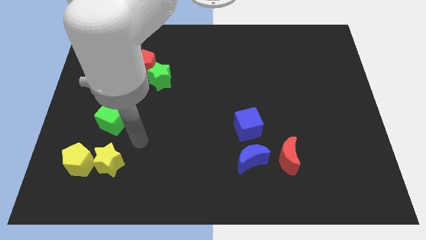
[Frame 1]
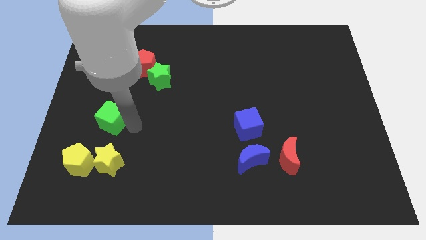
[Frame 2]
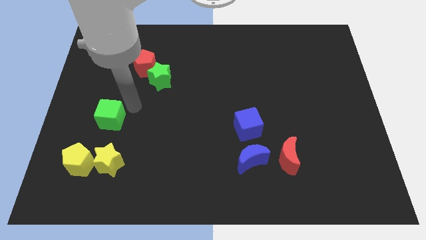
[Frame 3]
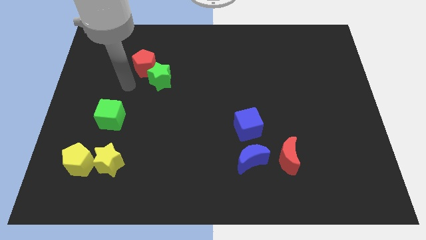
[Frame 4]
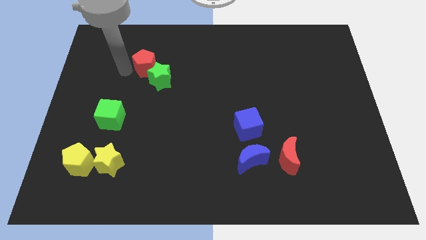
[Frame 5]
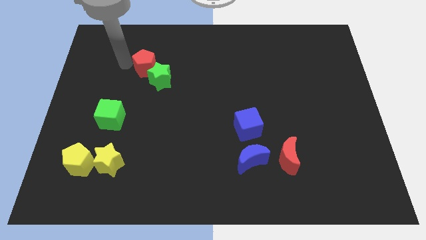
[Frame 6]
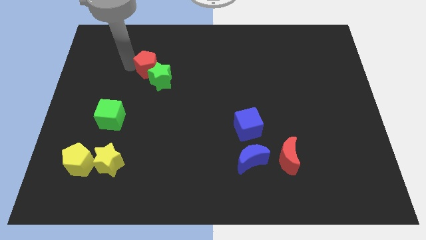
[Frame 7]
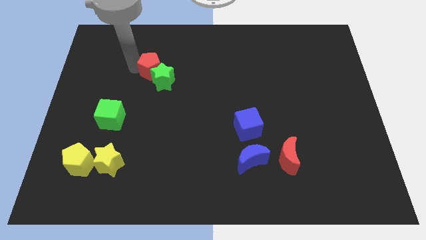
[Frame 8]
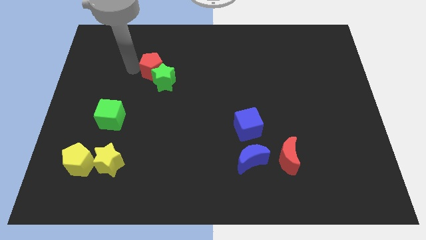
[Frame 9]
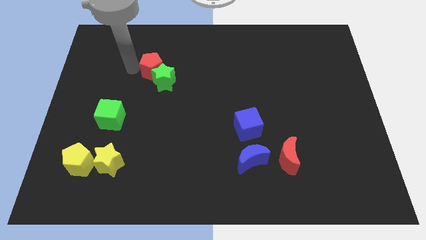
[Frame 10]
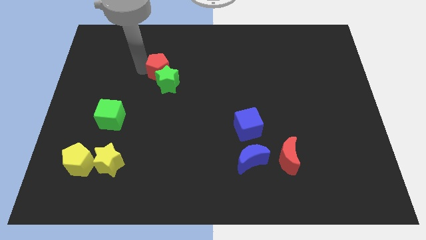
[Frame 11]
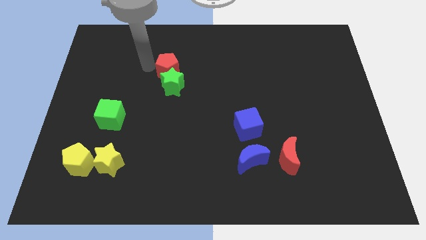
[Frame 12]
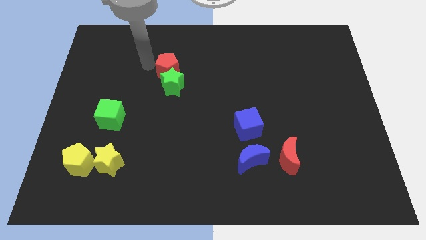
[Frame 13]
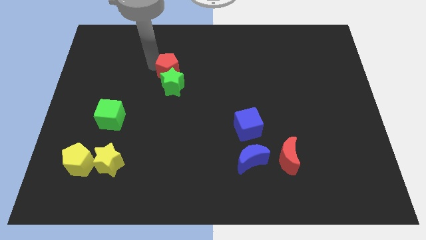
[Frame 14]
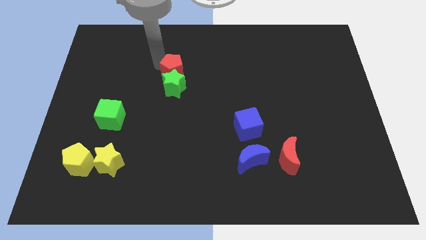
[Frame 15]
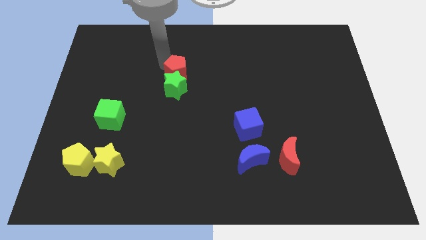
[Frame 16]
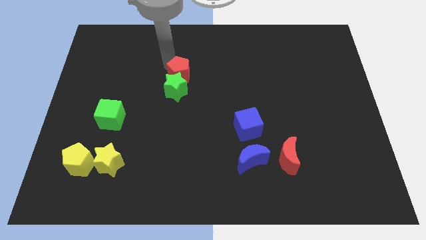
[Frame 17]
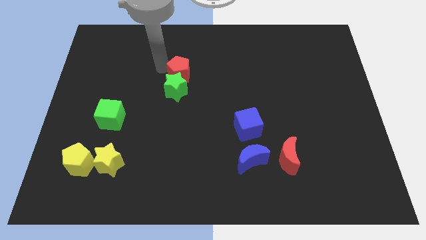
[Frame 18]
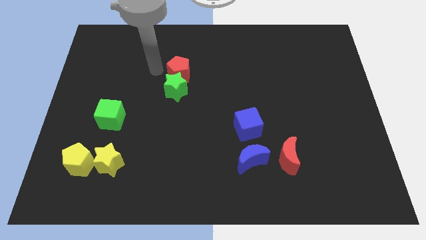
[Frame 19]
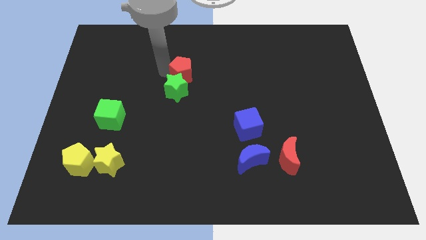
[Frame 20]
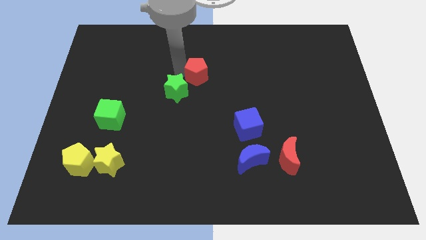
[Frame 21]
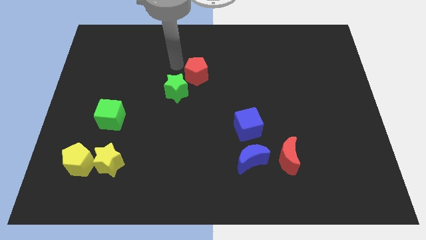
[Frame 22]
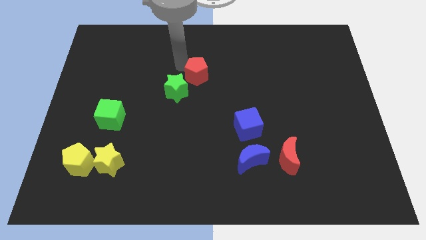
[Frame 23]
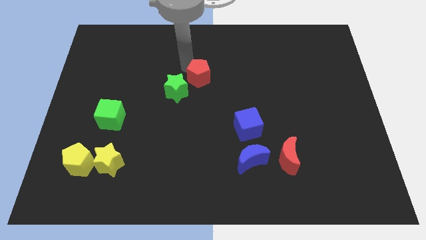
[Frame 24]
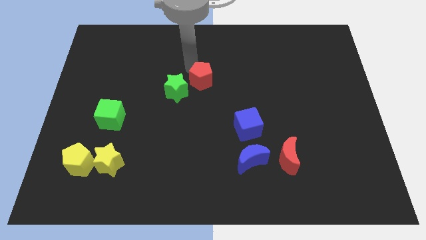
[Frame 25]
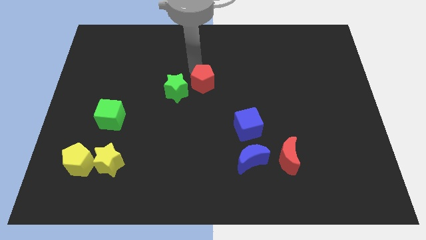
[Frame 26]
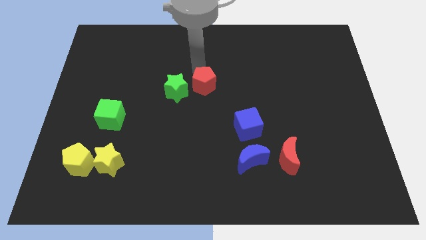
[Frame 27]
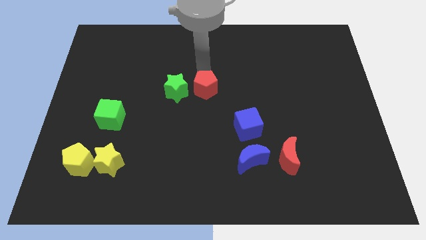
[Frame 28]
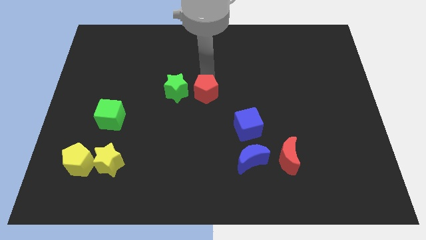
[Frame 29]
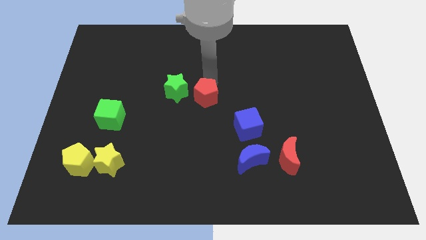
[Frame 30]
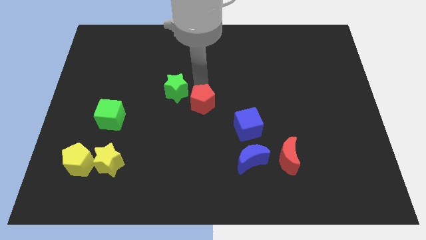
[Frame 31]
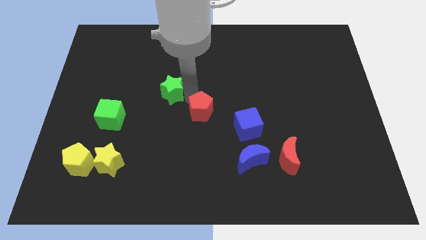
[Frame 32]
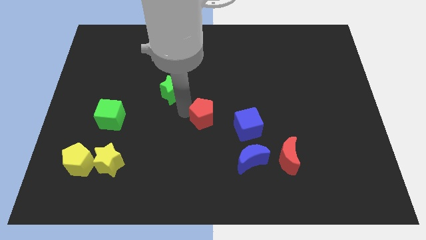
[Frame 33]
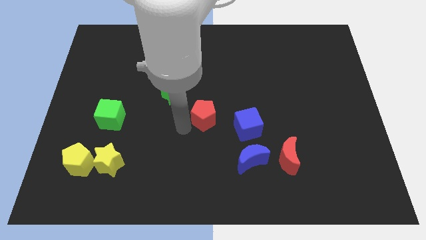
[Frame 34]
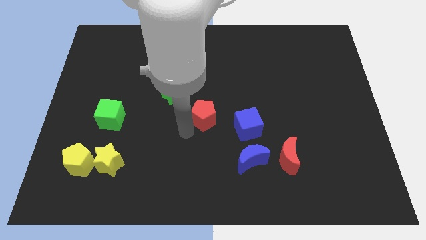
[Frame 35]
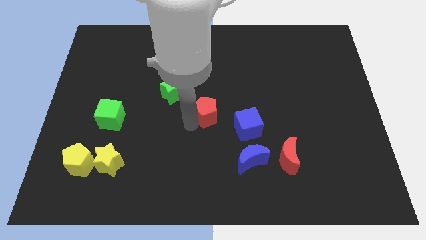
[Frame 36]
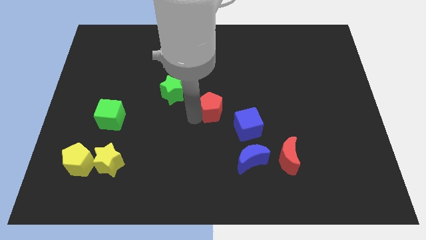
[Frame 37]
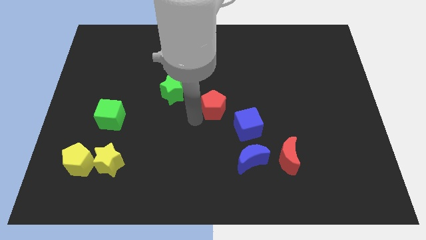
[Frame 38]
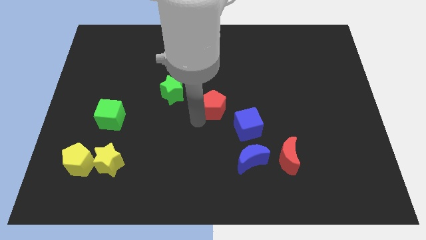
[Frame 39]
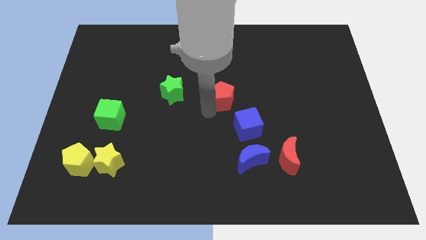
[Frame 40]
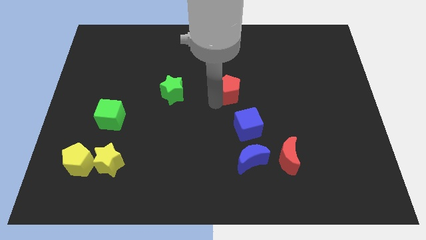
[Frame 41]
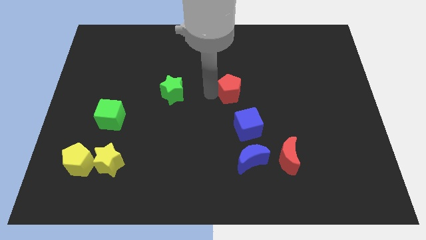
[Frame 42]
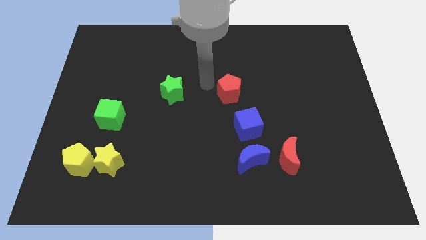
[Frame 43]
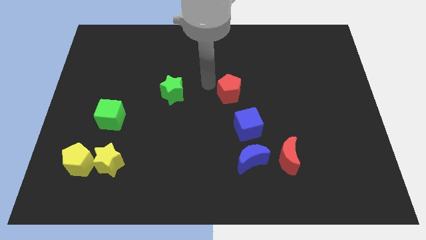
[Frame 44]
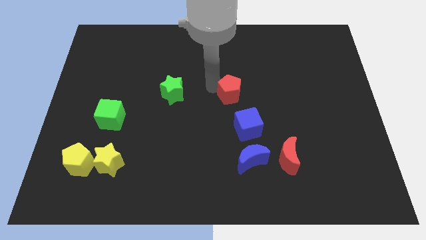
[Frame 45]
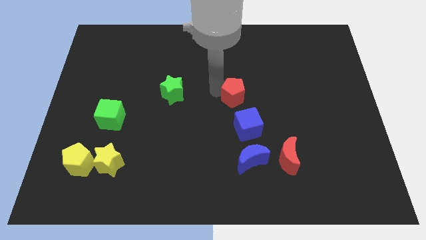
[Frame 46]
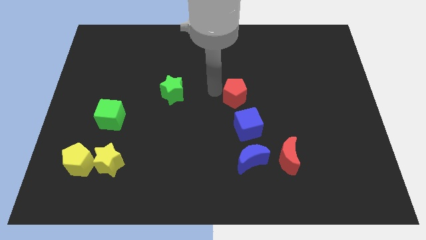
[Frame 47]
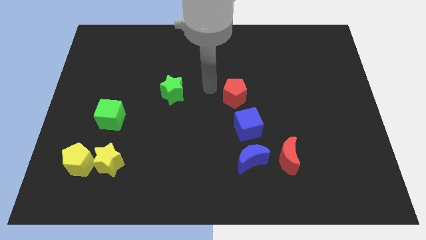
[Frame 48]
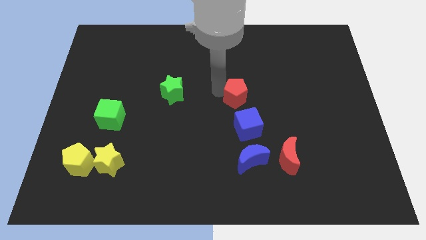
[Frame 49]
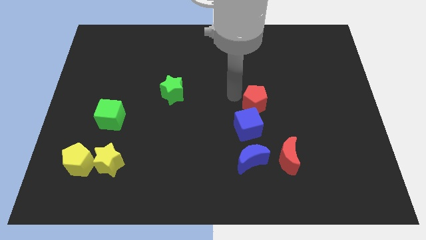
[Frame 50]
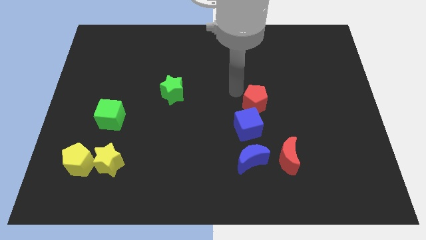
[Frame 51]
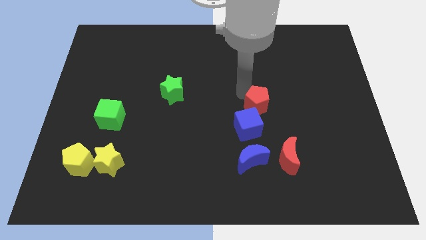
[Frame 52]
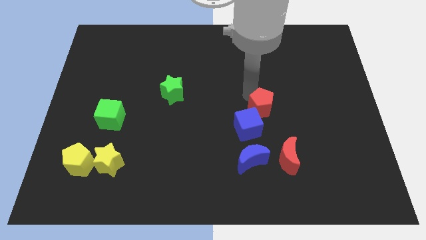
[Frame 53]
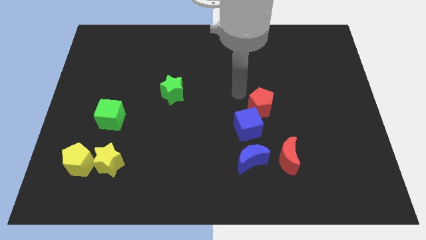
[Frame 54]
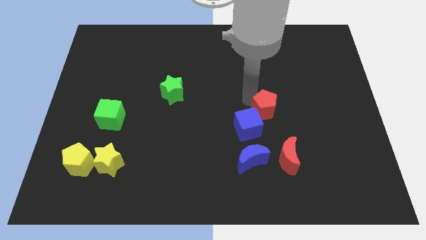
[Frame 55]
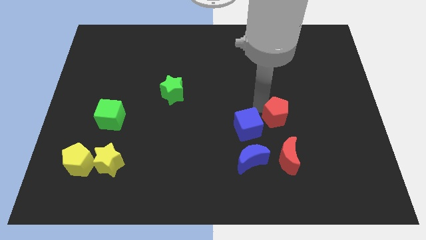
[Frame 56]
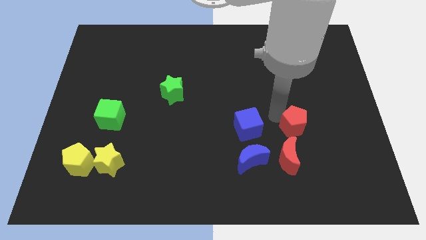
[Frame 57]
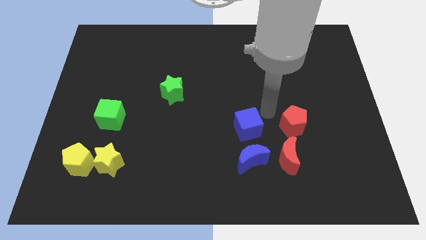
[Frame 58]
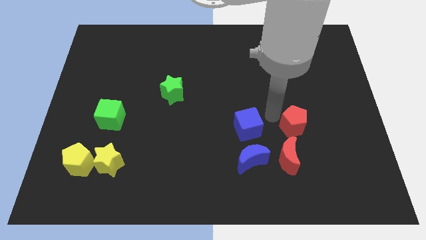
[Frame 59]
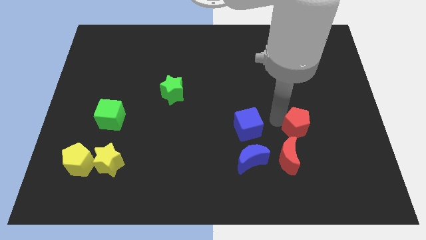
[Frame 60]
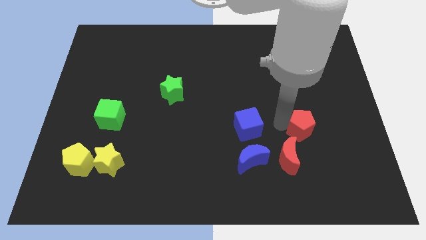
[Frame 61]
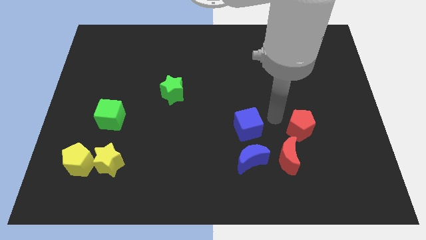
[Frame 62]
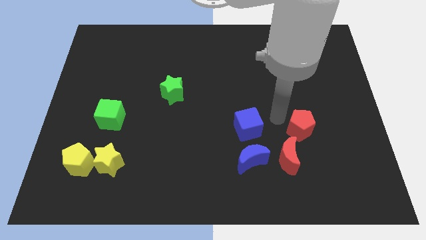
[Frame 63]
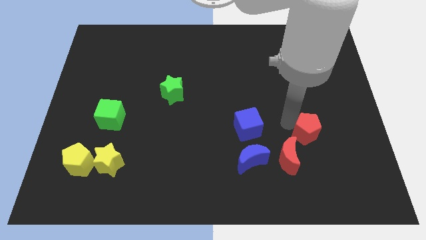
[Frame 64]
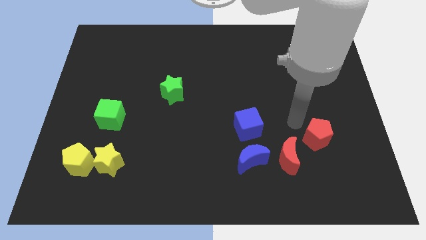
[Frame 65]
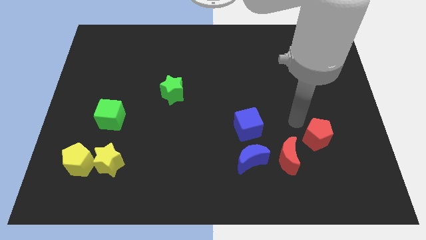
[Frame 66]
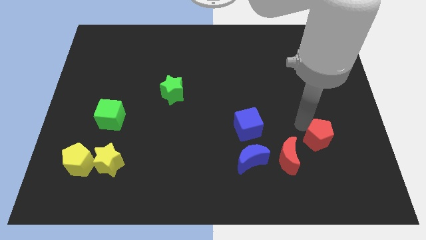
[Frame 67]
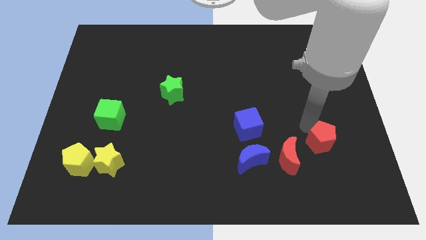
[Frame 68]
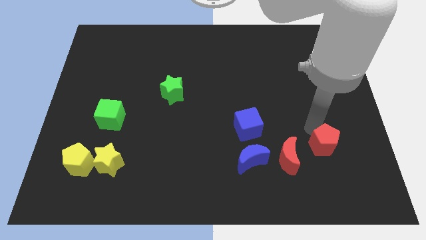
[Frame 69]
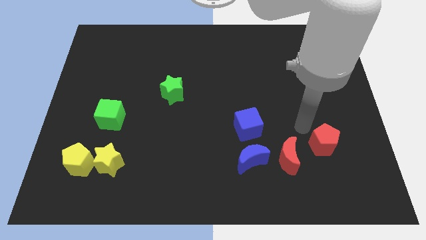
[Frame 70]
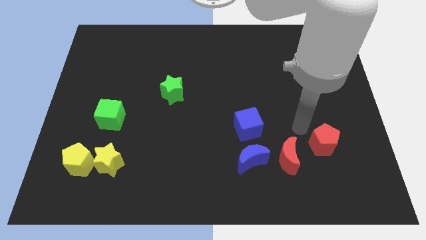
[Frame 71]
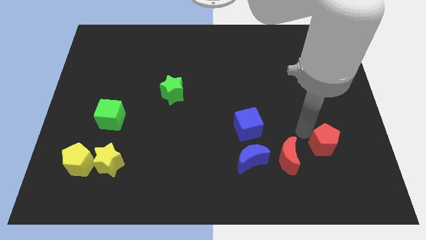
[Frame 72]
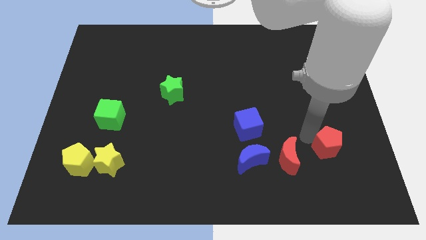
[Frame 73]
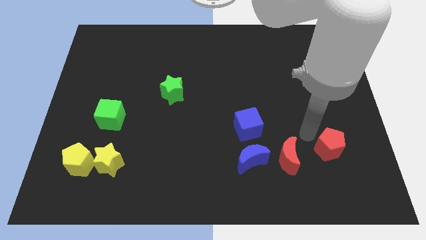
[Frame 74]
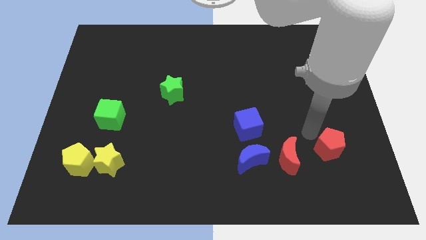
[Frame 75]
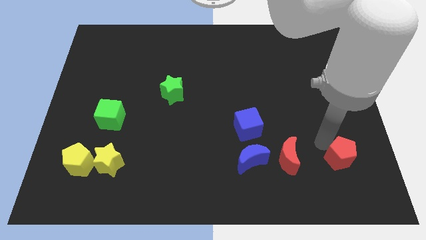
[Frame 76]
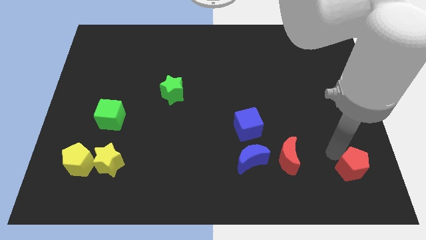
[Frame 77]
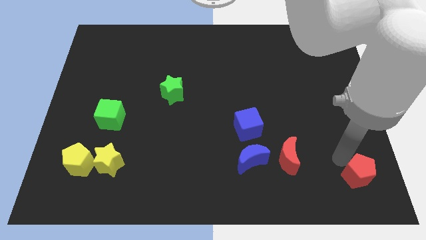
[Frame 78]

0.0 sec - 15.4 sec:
move the red pentagon to the bottom right
